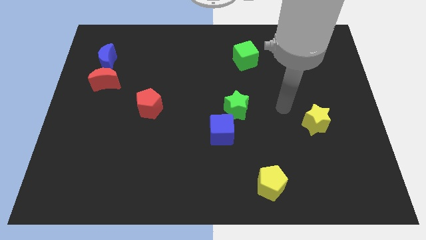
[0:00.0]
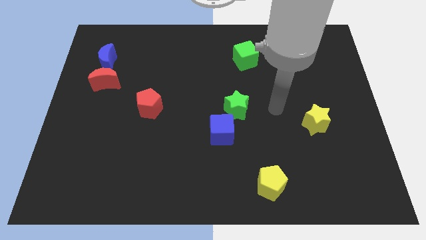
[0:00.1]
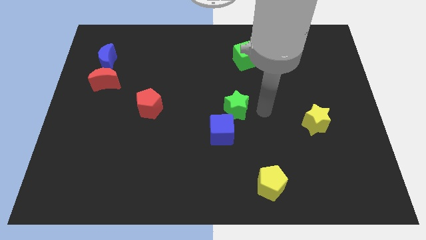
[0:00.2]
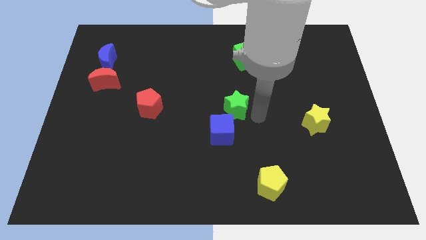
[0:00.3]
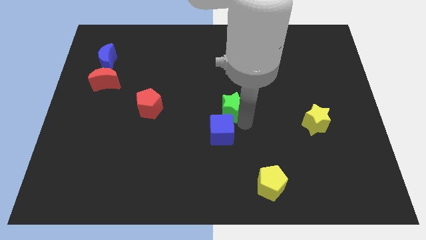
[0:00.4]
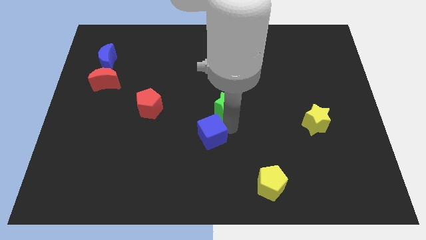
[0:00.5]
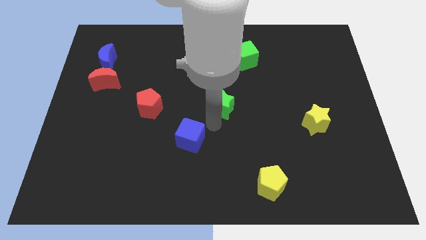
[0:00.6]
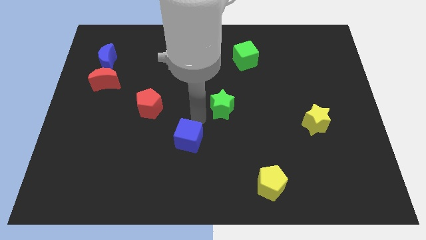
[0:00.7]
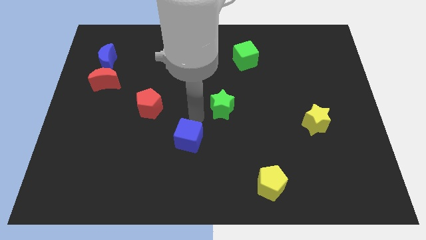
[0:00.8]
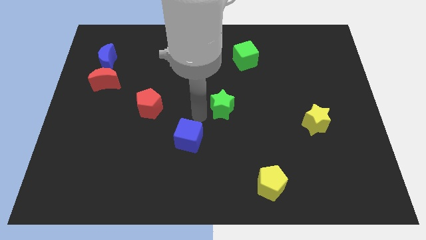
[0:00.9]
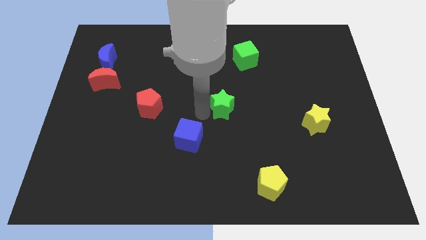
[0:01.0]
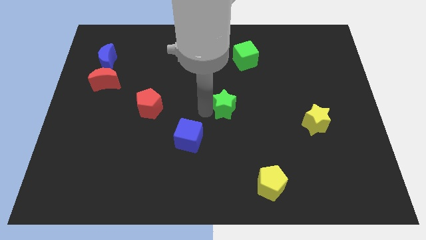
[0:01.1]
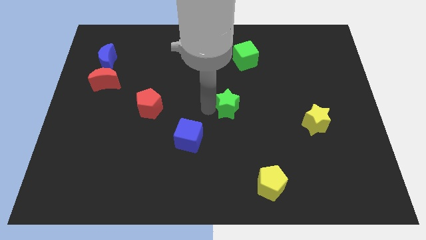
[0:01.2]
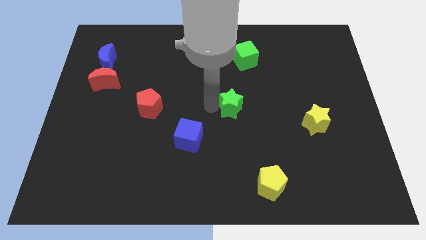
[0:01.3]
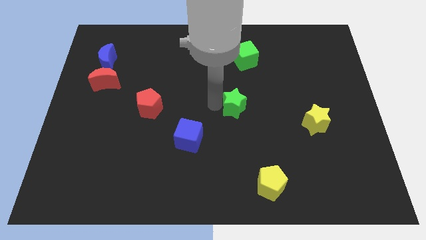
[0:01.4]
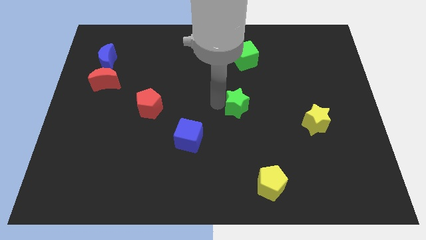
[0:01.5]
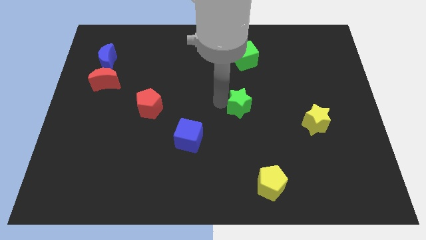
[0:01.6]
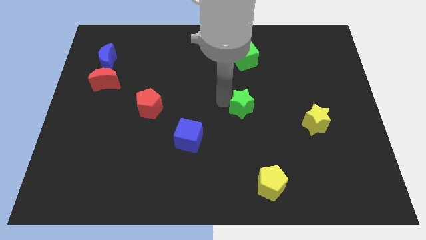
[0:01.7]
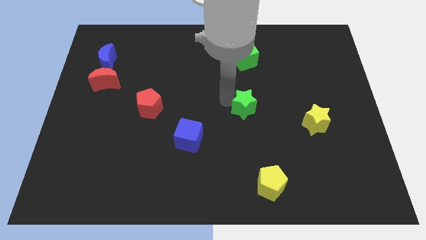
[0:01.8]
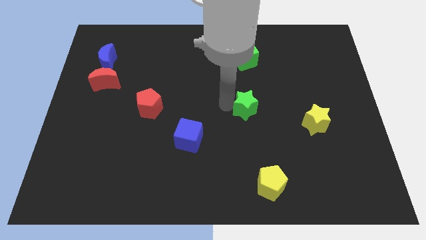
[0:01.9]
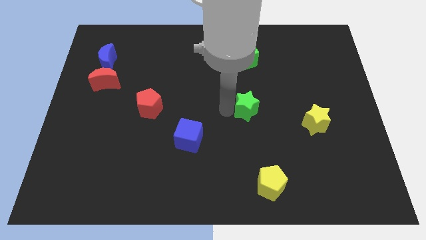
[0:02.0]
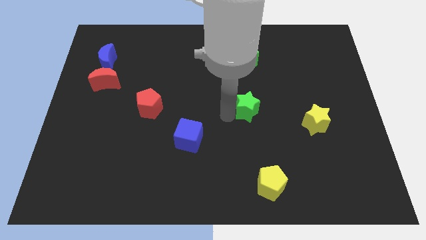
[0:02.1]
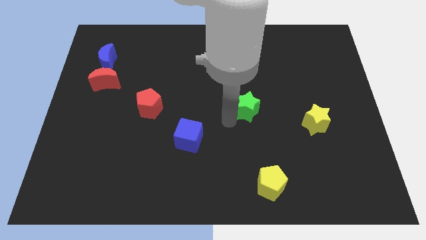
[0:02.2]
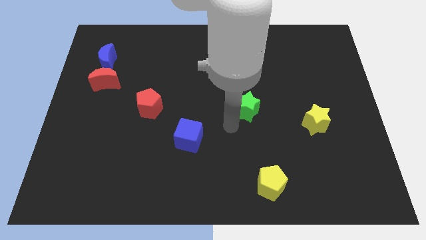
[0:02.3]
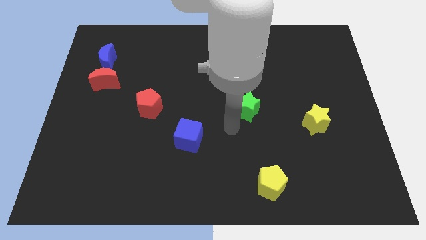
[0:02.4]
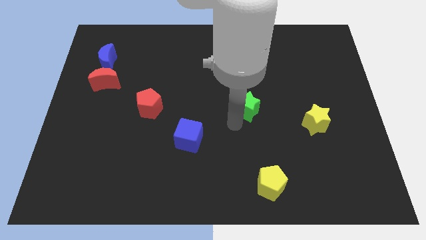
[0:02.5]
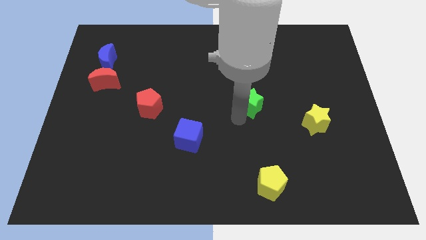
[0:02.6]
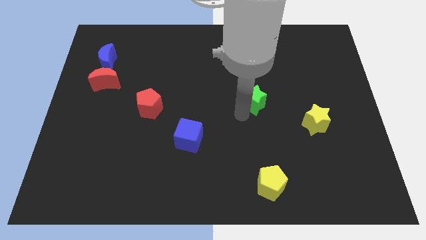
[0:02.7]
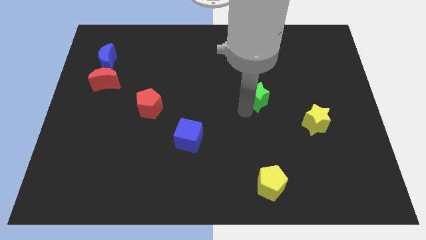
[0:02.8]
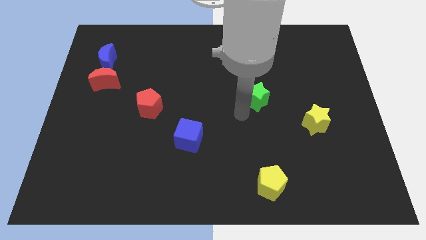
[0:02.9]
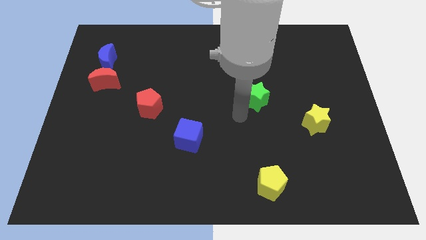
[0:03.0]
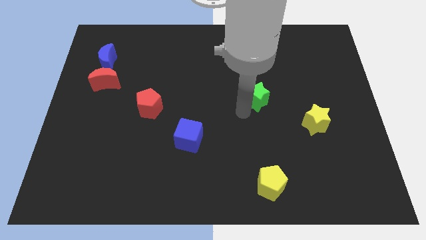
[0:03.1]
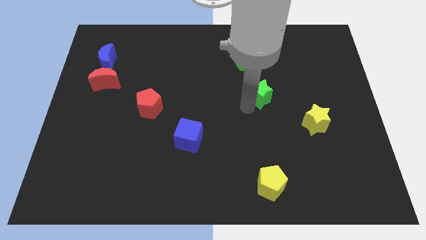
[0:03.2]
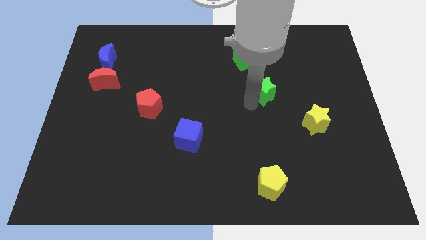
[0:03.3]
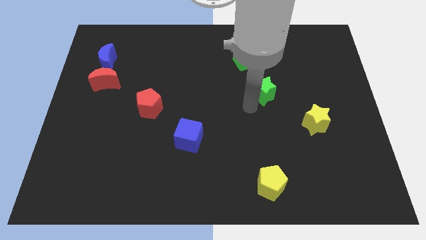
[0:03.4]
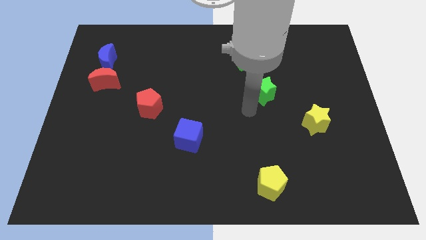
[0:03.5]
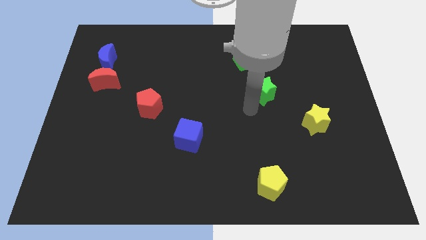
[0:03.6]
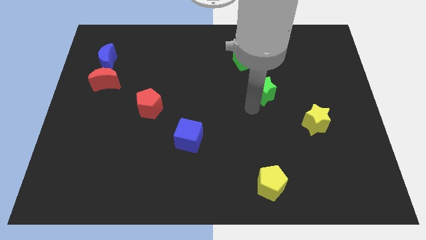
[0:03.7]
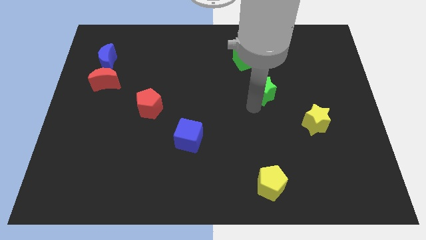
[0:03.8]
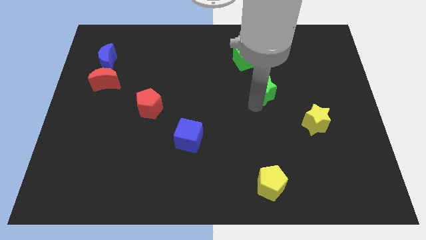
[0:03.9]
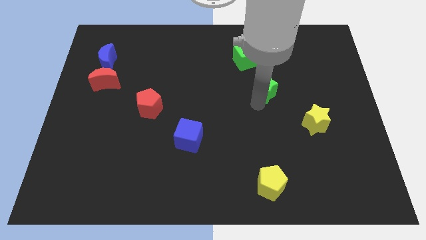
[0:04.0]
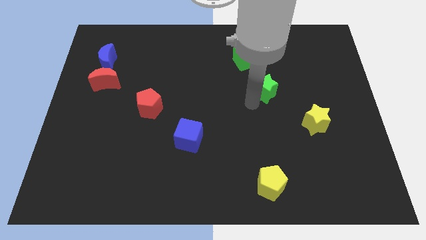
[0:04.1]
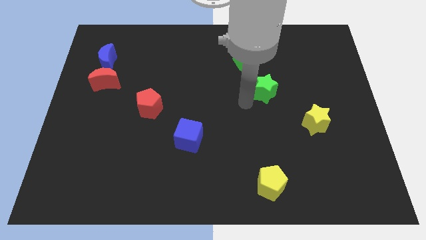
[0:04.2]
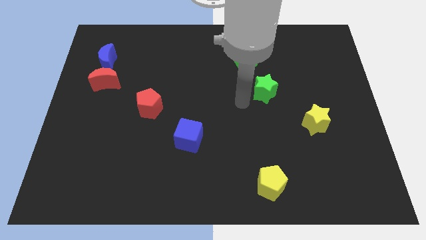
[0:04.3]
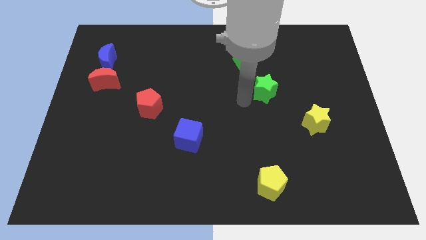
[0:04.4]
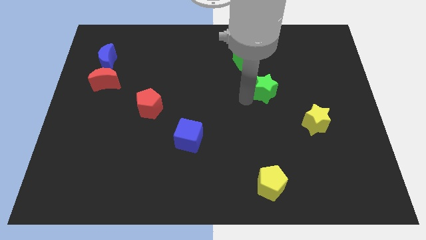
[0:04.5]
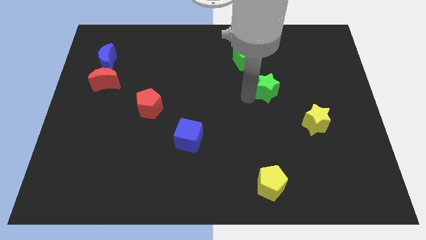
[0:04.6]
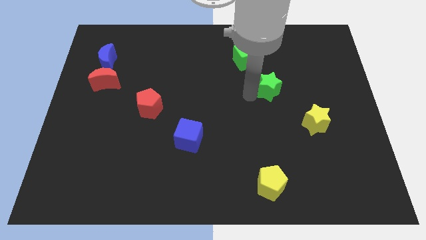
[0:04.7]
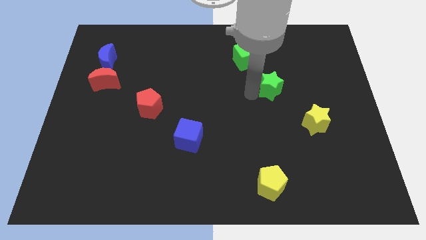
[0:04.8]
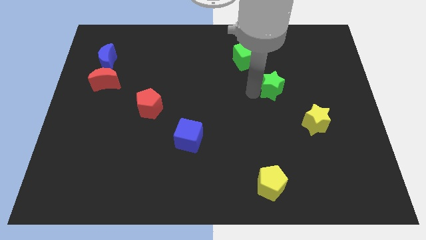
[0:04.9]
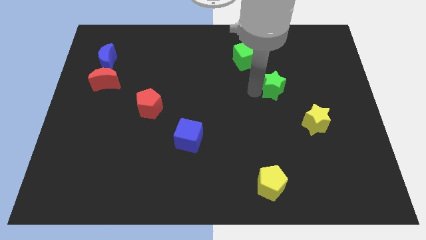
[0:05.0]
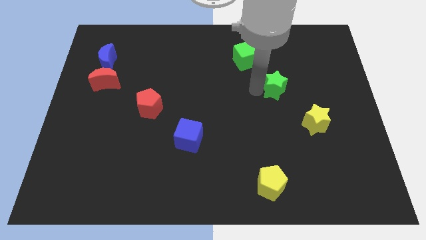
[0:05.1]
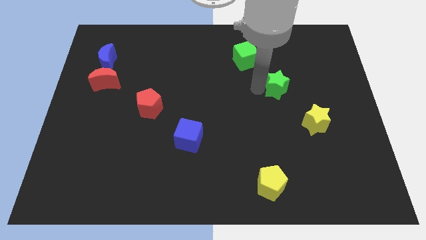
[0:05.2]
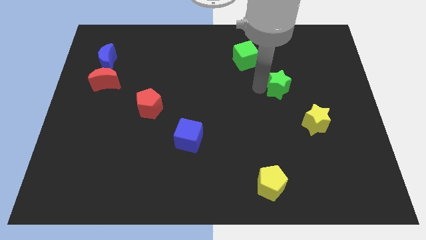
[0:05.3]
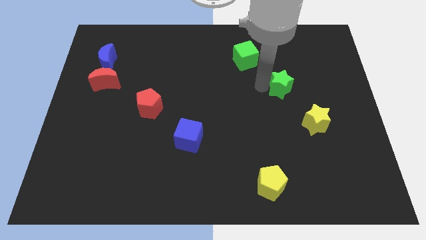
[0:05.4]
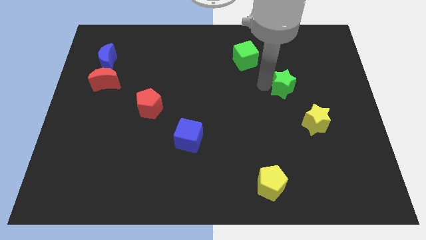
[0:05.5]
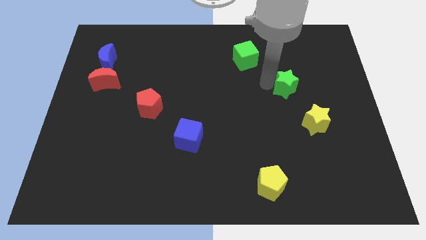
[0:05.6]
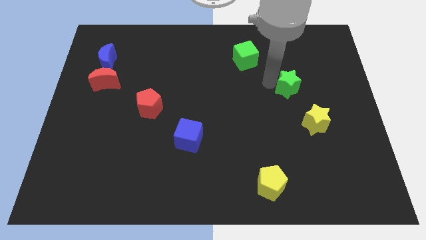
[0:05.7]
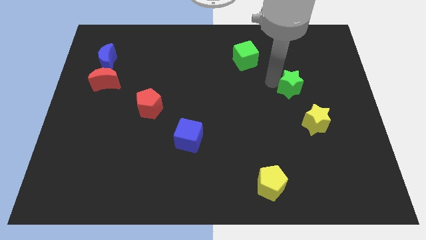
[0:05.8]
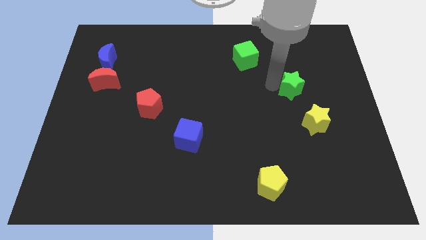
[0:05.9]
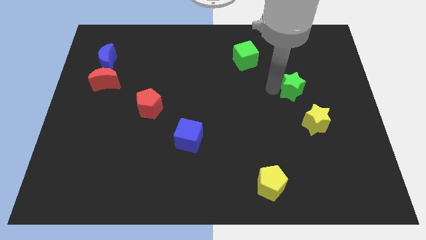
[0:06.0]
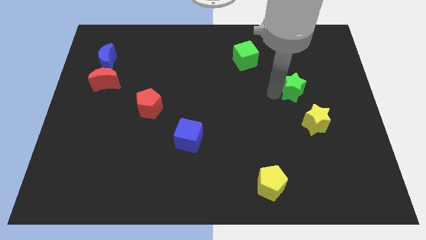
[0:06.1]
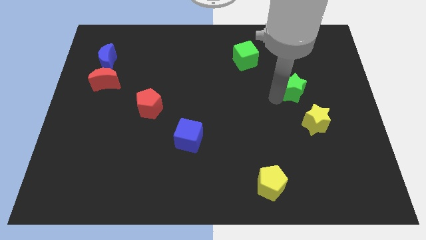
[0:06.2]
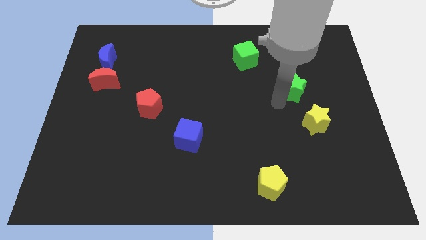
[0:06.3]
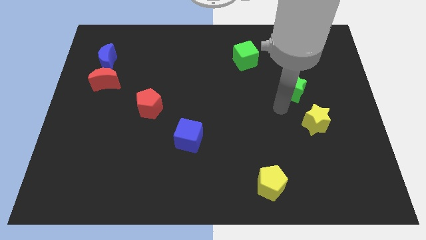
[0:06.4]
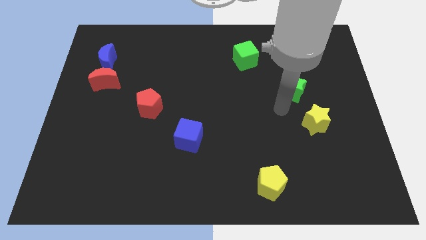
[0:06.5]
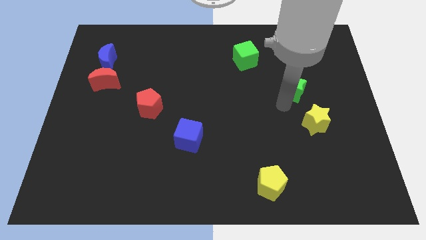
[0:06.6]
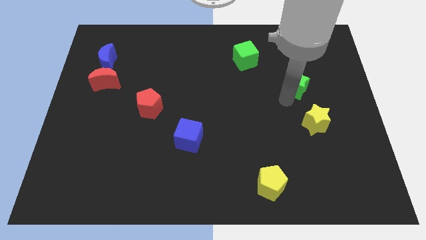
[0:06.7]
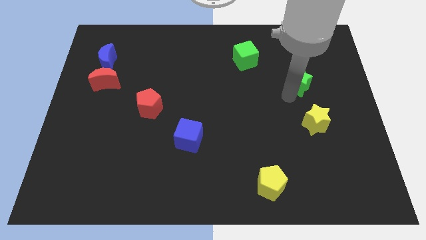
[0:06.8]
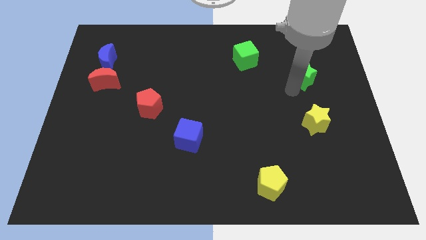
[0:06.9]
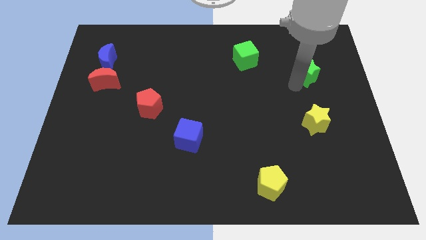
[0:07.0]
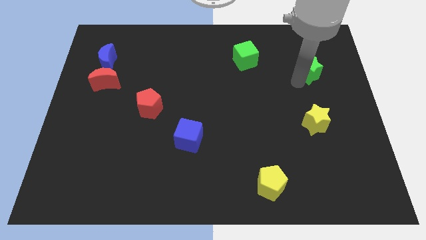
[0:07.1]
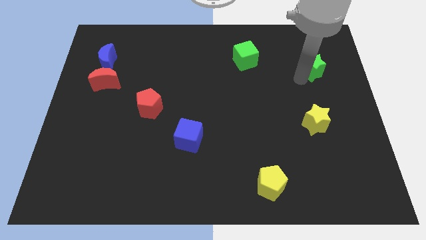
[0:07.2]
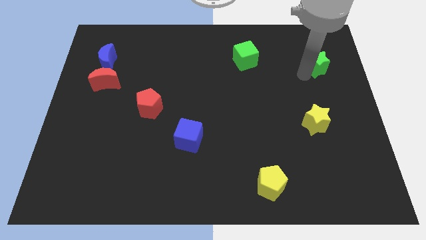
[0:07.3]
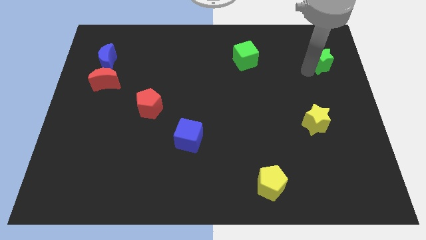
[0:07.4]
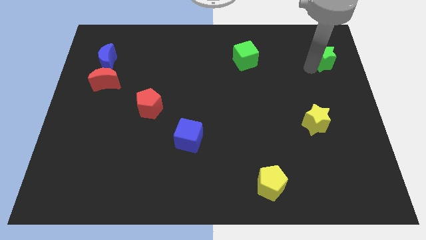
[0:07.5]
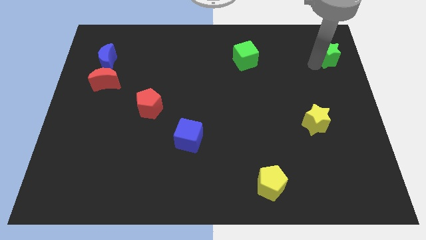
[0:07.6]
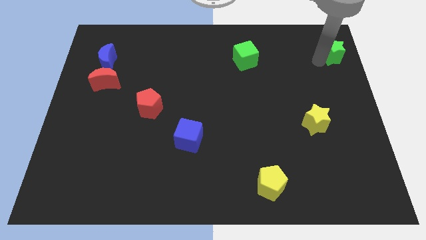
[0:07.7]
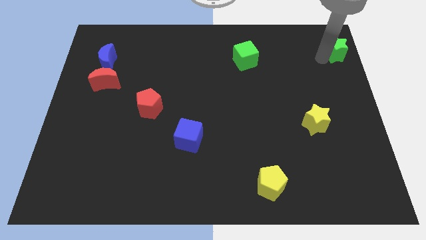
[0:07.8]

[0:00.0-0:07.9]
push the green star to the top right corner
